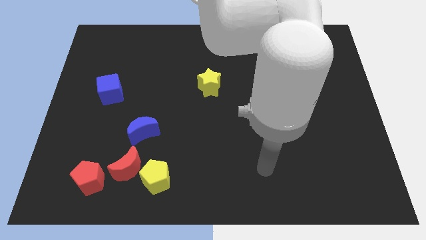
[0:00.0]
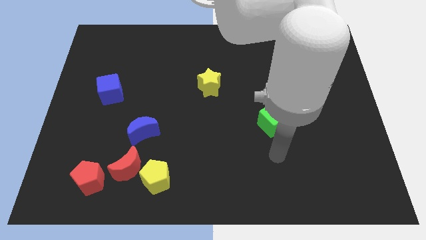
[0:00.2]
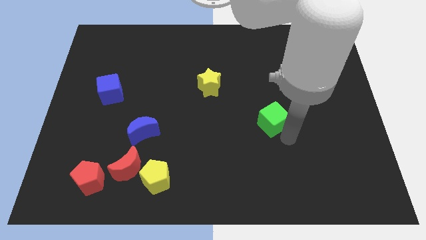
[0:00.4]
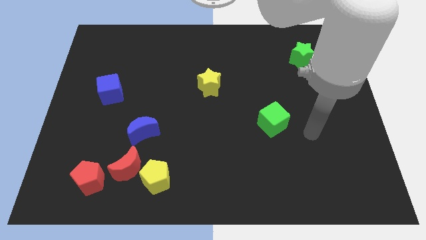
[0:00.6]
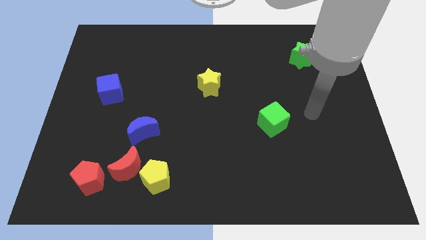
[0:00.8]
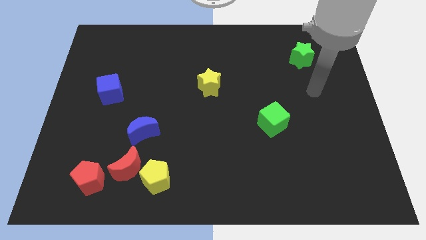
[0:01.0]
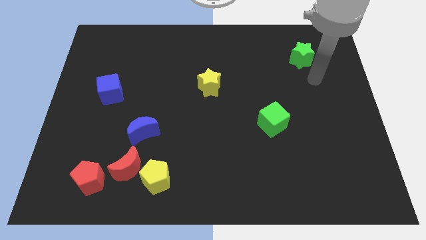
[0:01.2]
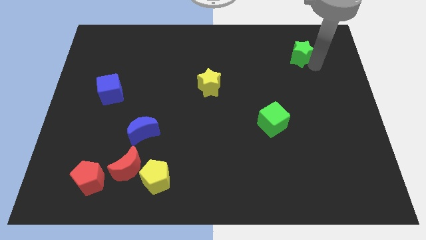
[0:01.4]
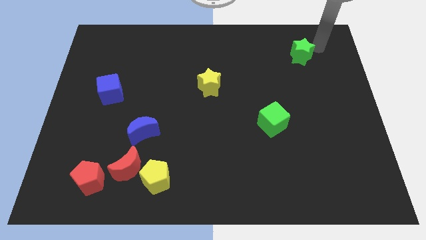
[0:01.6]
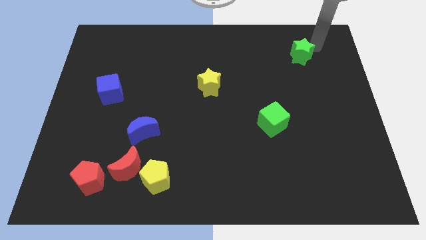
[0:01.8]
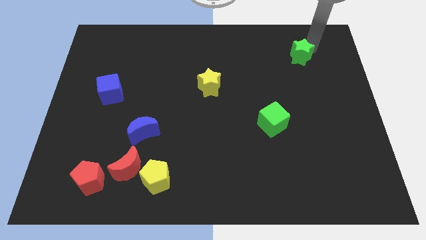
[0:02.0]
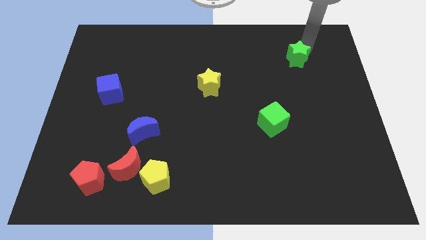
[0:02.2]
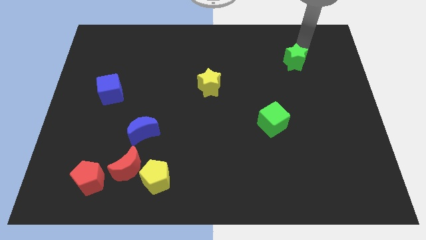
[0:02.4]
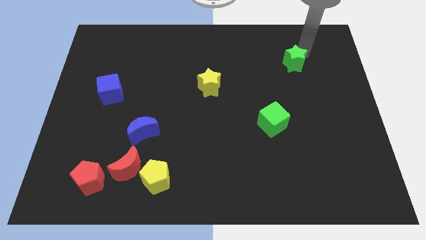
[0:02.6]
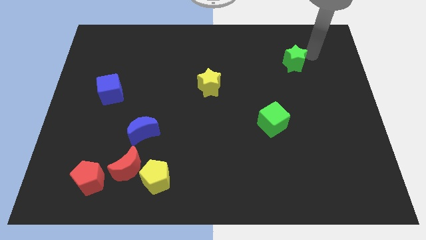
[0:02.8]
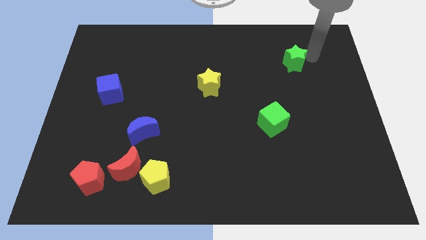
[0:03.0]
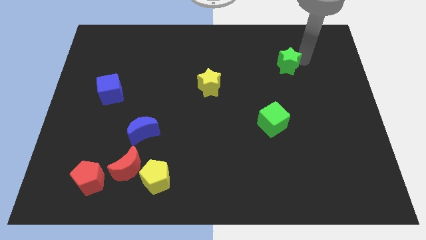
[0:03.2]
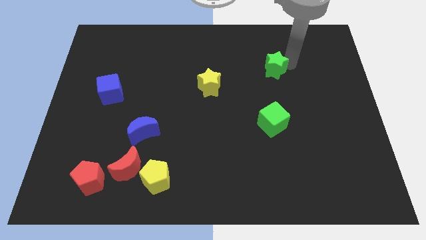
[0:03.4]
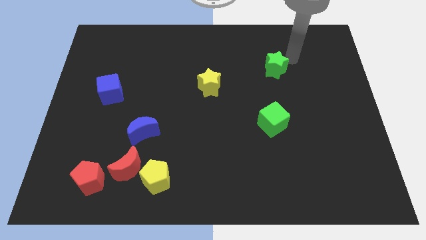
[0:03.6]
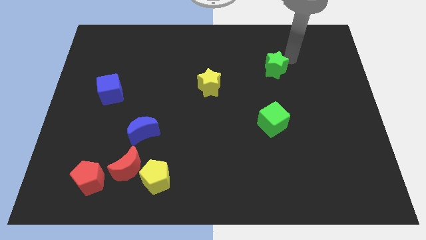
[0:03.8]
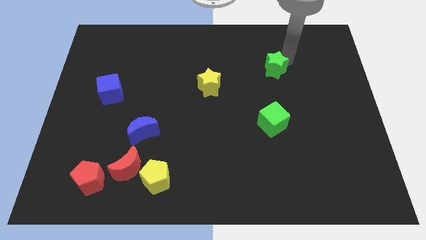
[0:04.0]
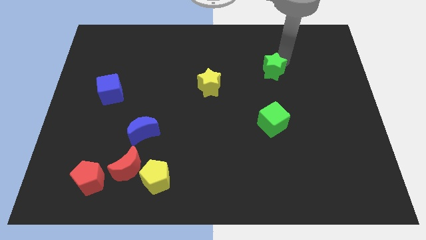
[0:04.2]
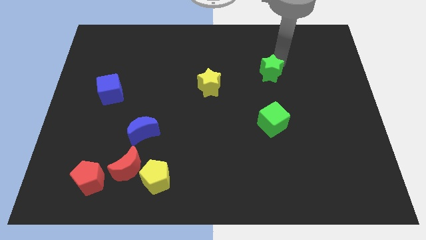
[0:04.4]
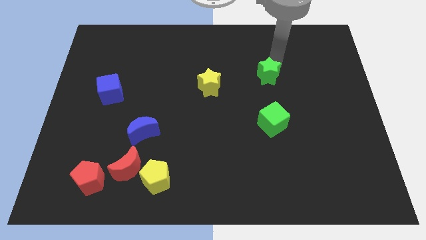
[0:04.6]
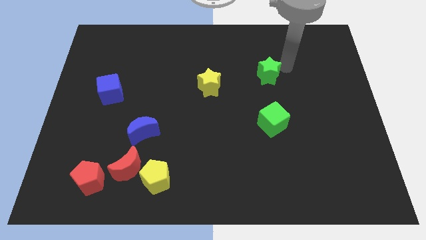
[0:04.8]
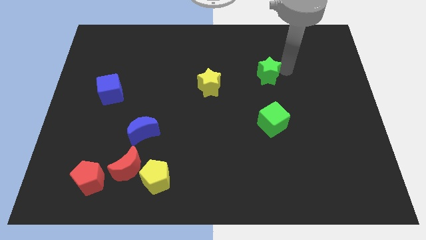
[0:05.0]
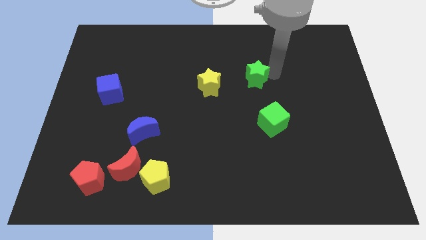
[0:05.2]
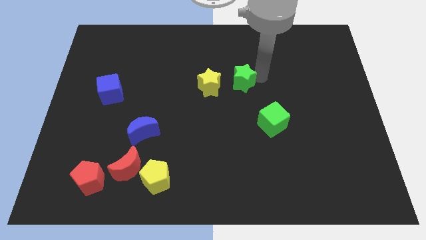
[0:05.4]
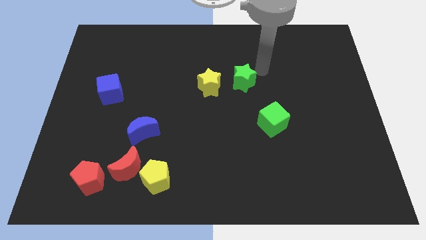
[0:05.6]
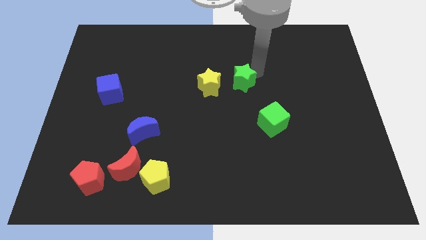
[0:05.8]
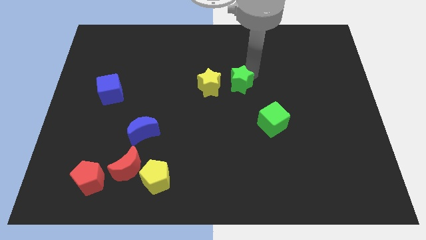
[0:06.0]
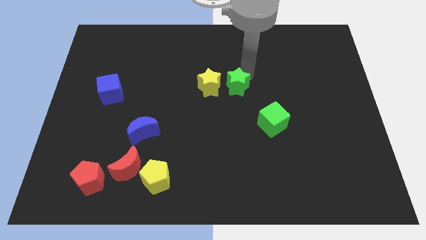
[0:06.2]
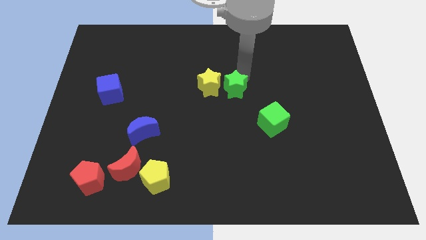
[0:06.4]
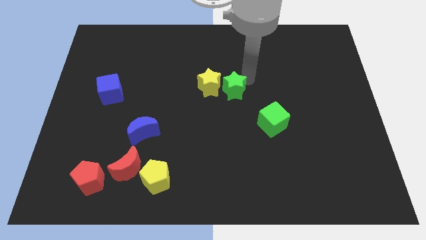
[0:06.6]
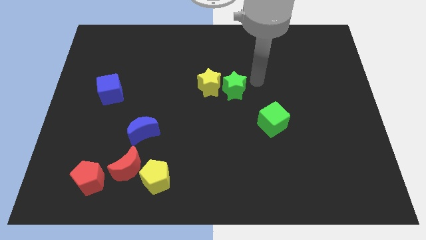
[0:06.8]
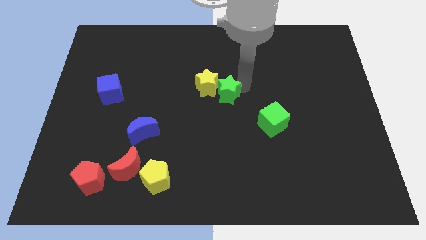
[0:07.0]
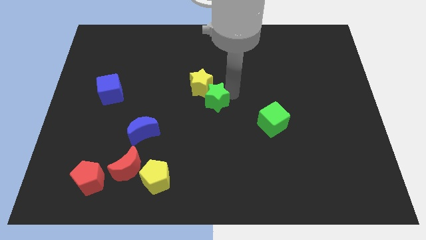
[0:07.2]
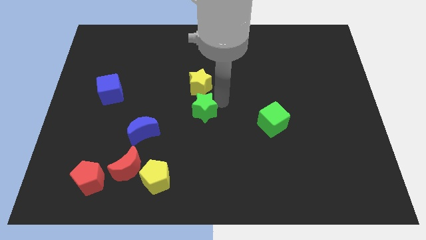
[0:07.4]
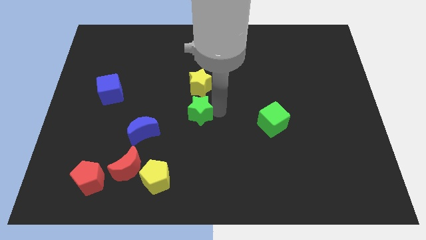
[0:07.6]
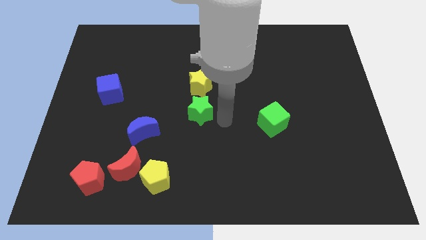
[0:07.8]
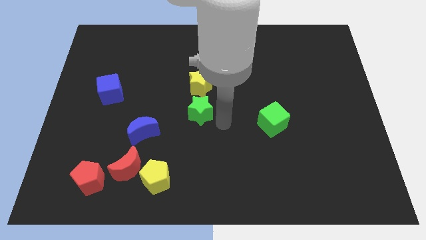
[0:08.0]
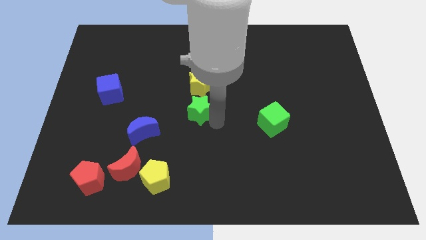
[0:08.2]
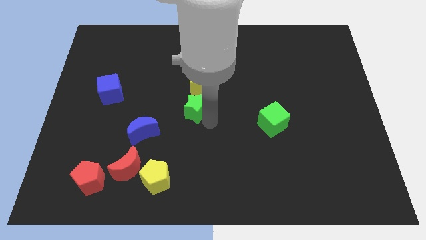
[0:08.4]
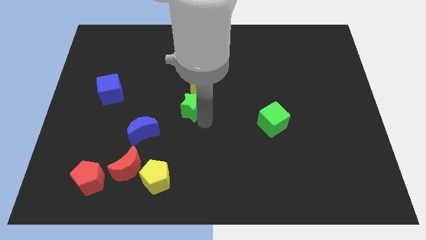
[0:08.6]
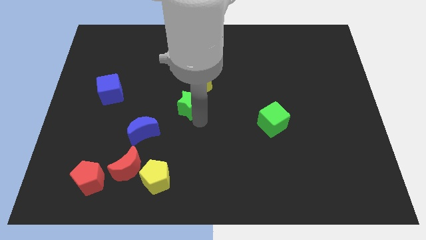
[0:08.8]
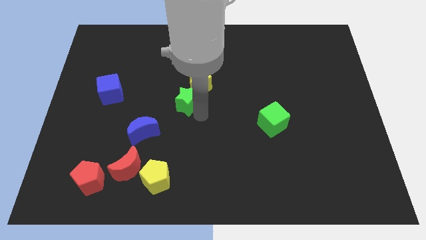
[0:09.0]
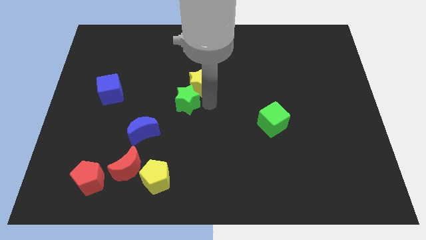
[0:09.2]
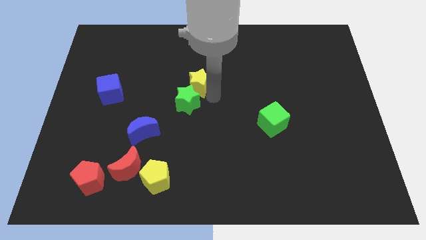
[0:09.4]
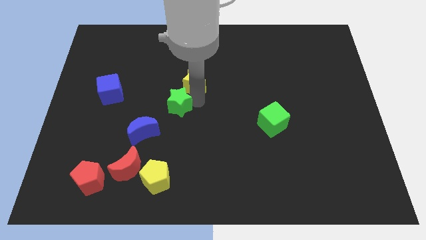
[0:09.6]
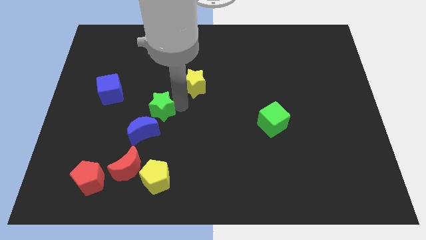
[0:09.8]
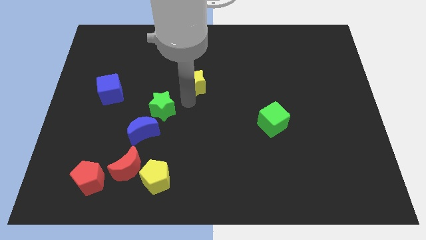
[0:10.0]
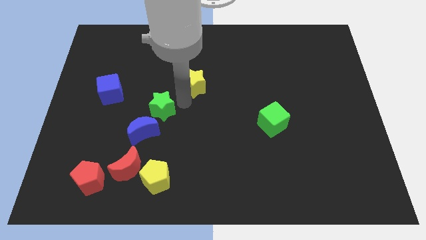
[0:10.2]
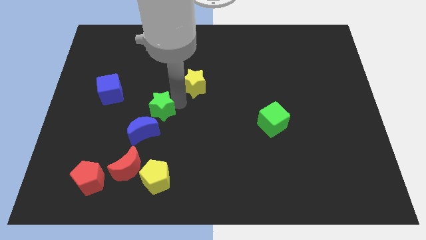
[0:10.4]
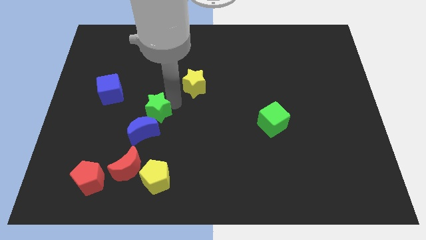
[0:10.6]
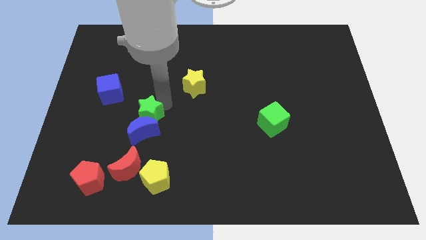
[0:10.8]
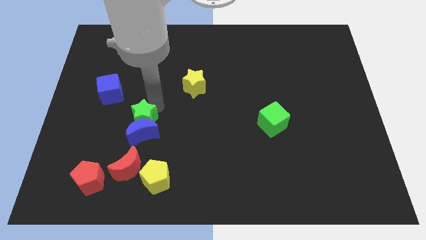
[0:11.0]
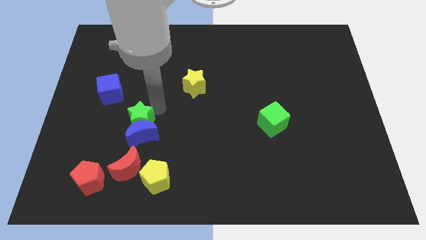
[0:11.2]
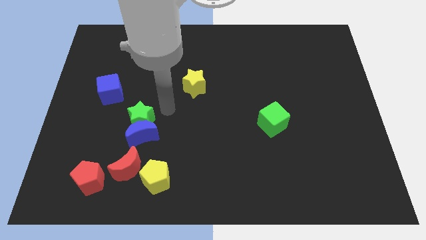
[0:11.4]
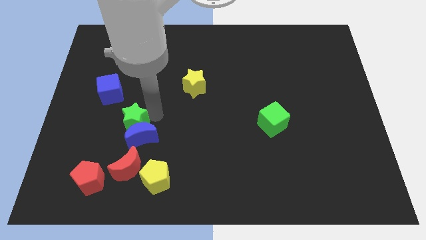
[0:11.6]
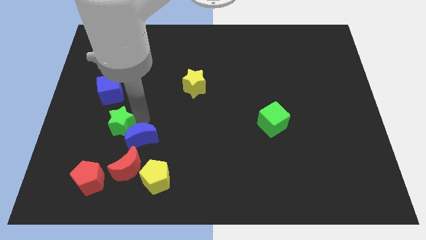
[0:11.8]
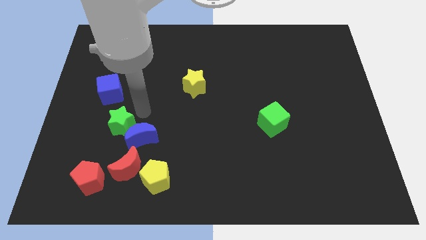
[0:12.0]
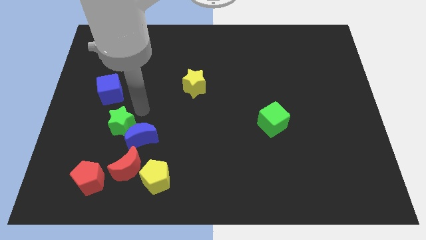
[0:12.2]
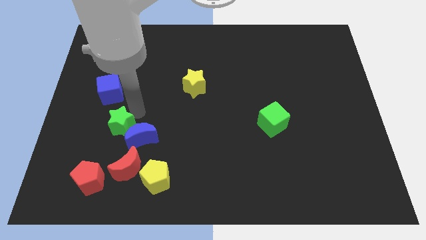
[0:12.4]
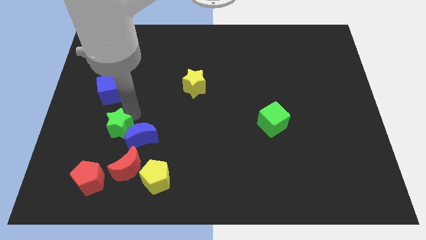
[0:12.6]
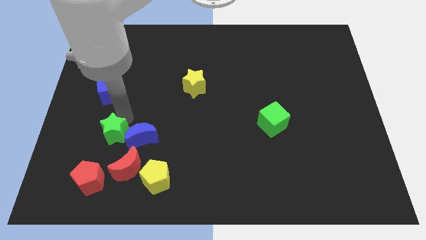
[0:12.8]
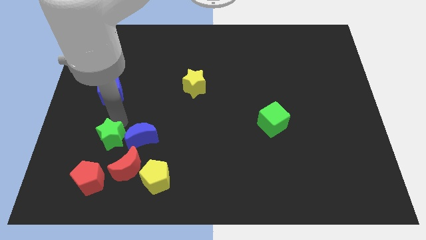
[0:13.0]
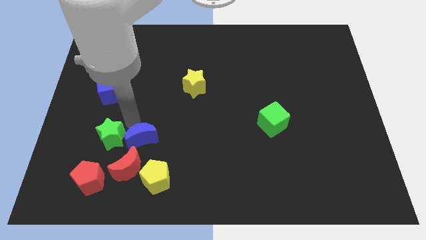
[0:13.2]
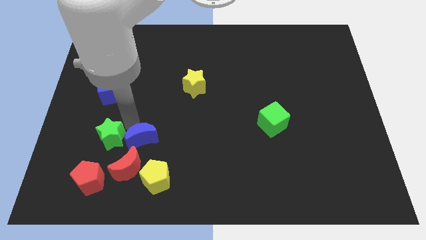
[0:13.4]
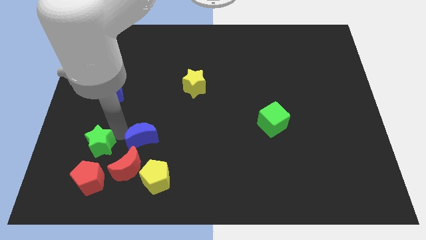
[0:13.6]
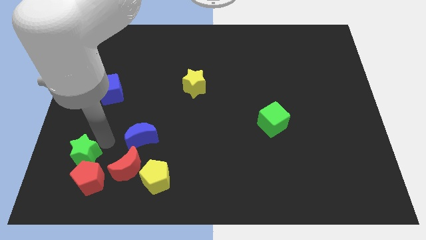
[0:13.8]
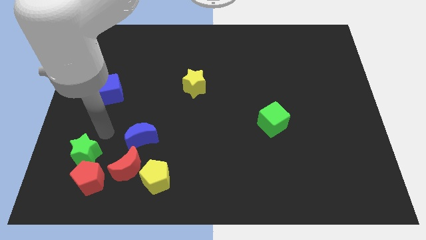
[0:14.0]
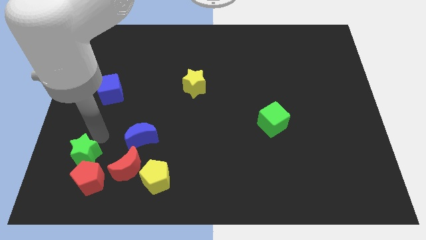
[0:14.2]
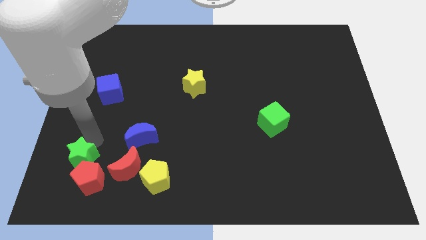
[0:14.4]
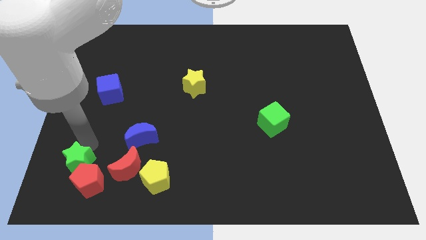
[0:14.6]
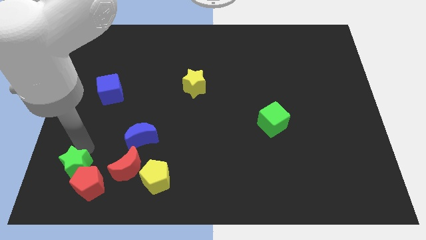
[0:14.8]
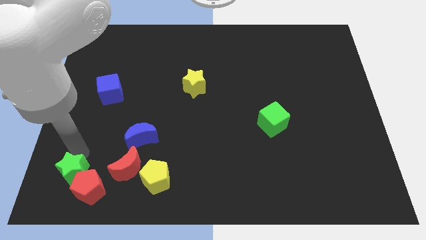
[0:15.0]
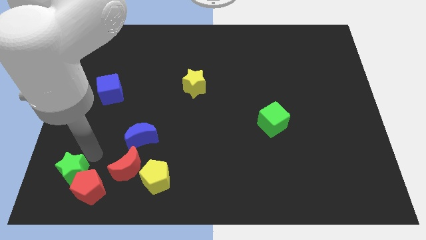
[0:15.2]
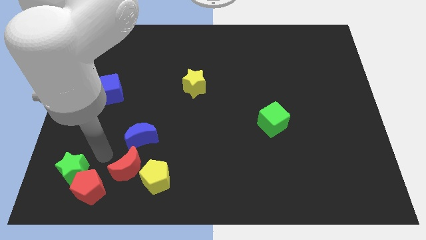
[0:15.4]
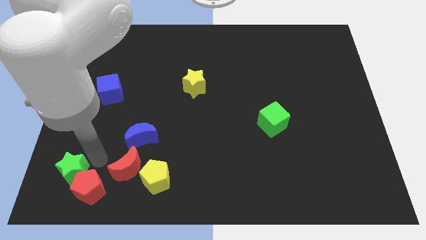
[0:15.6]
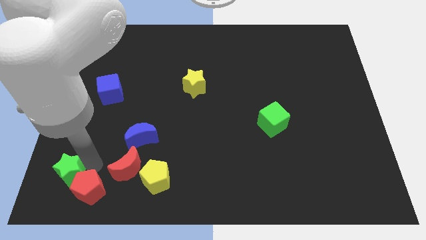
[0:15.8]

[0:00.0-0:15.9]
move the green star to the bottom left corner
